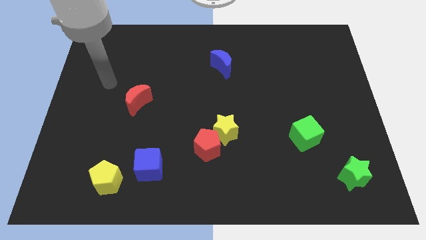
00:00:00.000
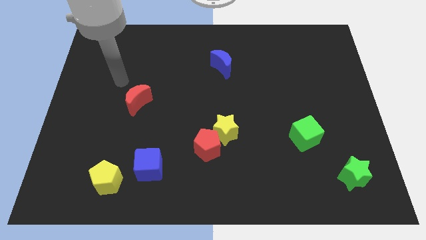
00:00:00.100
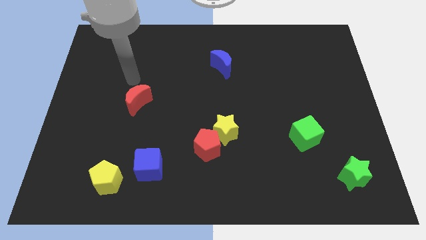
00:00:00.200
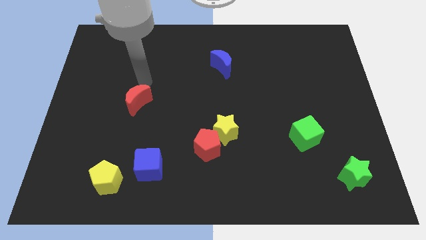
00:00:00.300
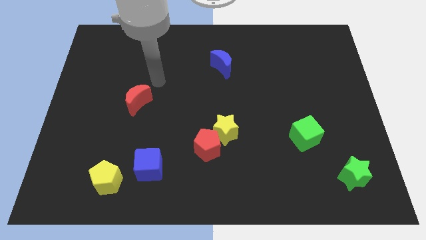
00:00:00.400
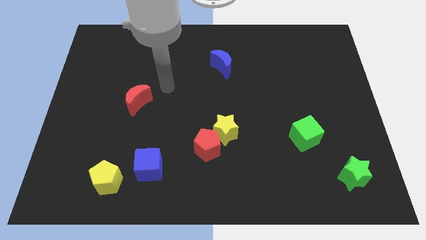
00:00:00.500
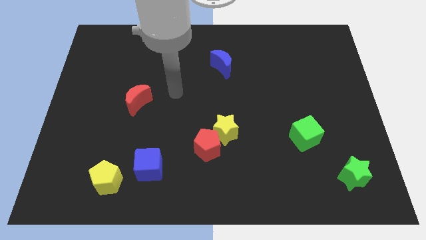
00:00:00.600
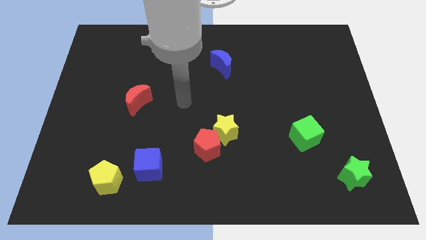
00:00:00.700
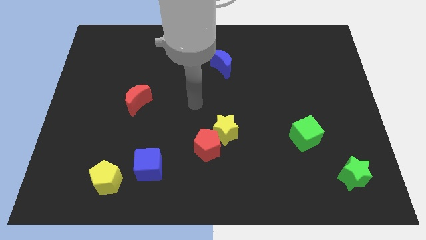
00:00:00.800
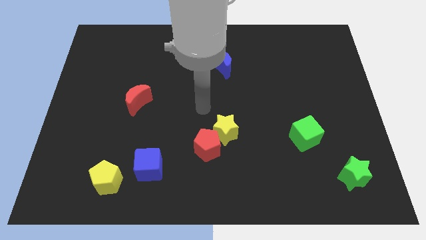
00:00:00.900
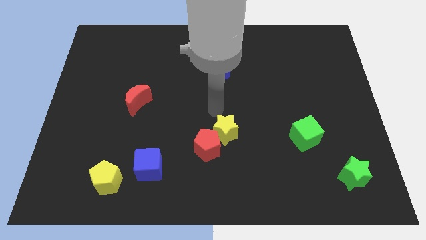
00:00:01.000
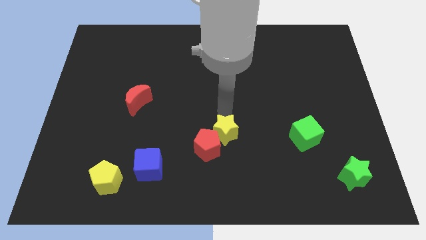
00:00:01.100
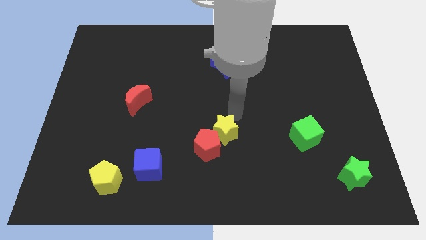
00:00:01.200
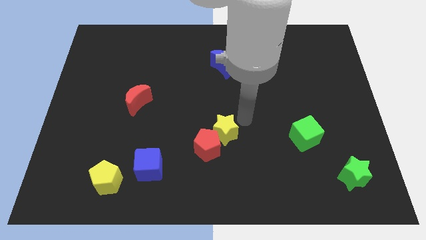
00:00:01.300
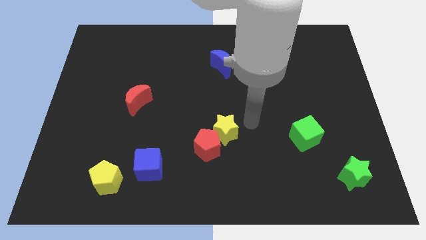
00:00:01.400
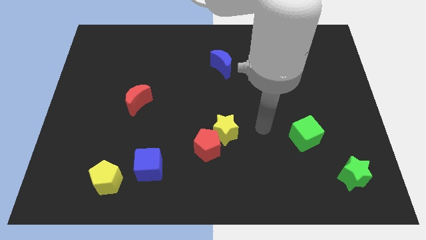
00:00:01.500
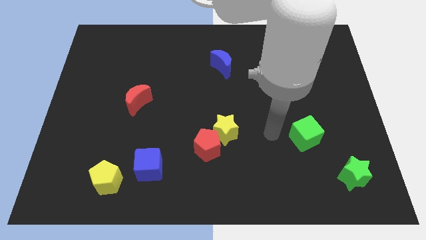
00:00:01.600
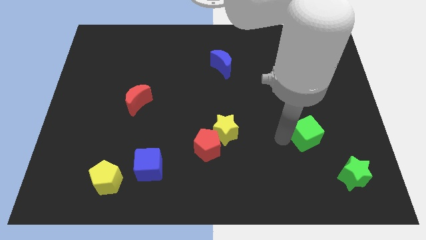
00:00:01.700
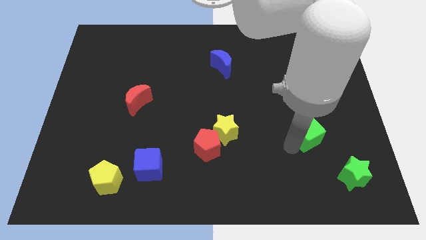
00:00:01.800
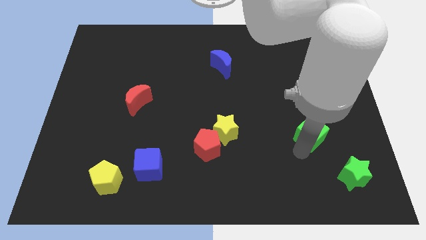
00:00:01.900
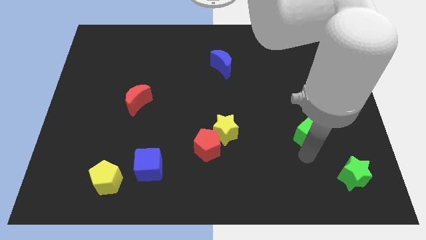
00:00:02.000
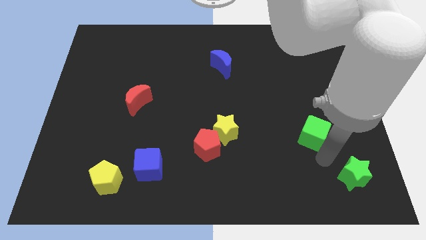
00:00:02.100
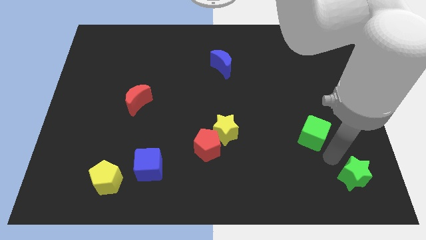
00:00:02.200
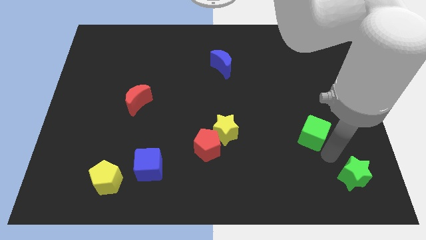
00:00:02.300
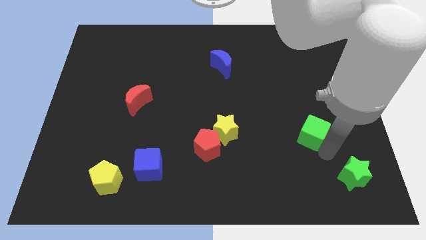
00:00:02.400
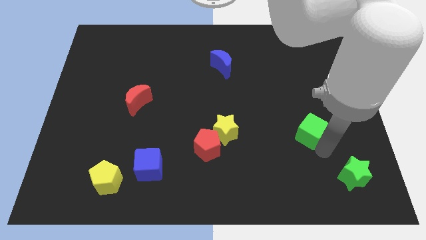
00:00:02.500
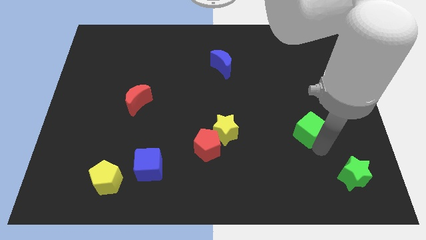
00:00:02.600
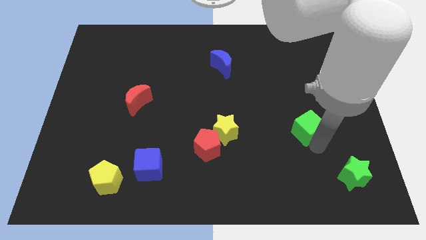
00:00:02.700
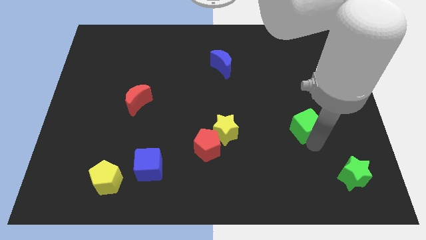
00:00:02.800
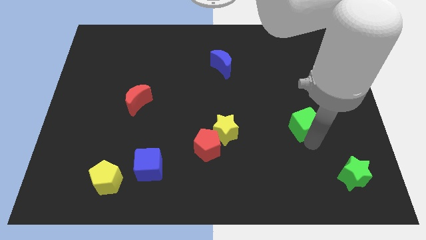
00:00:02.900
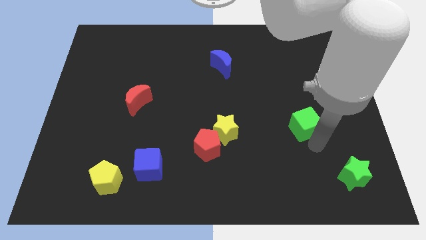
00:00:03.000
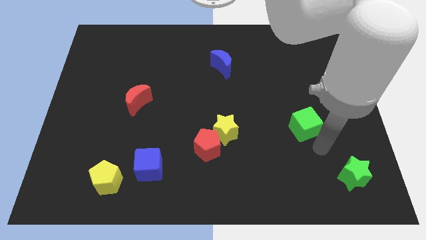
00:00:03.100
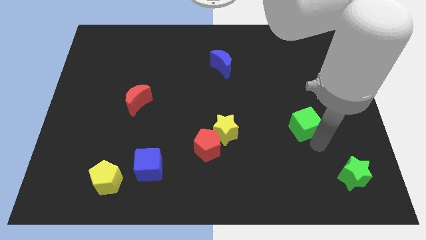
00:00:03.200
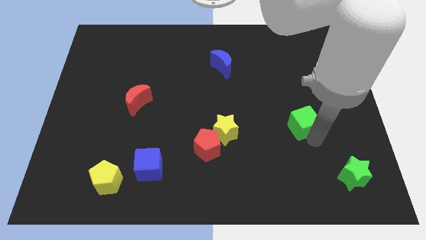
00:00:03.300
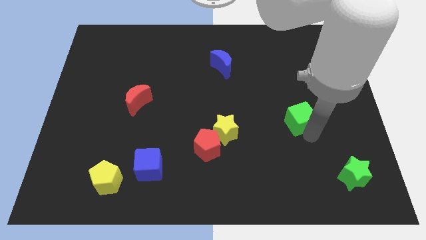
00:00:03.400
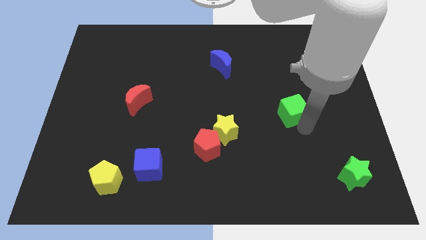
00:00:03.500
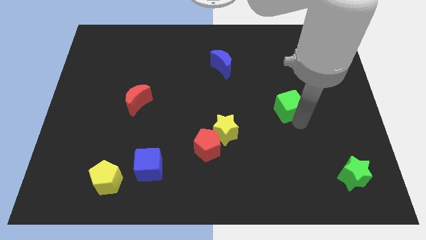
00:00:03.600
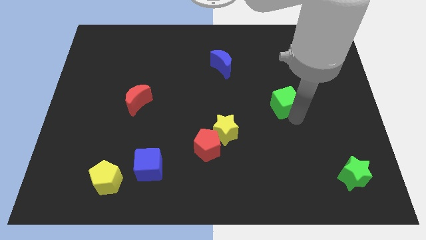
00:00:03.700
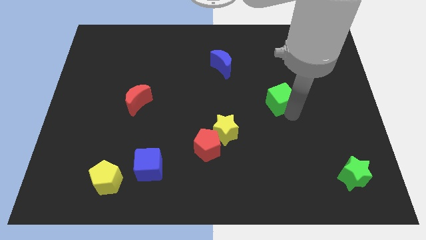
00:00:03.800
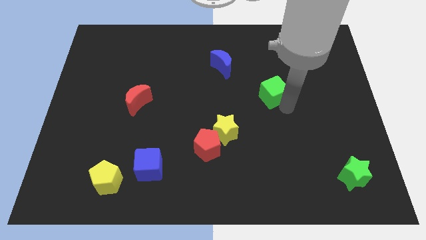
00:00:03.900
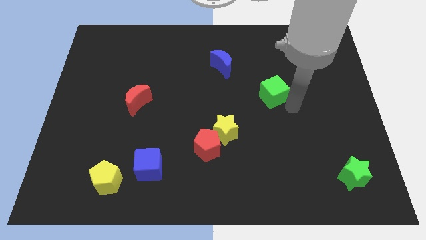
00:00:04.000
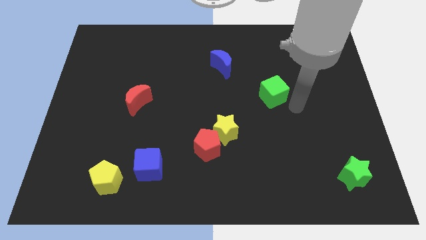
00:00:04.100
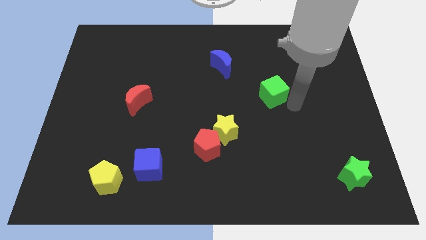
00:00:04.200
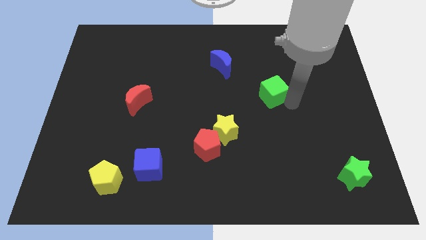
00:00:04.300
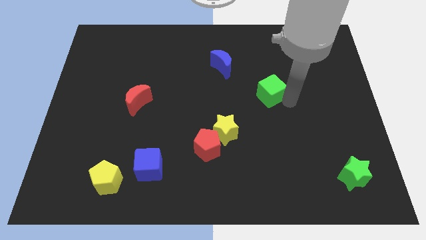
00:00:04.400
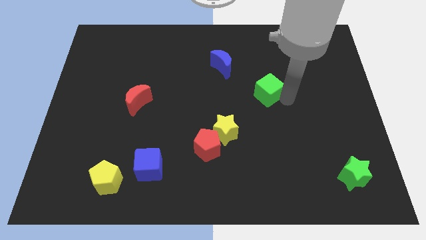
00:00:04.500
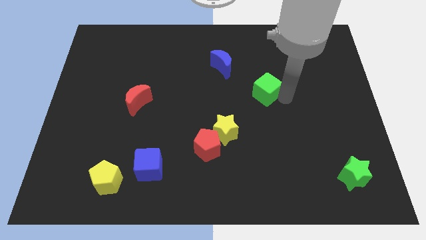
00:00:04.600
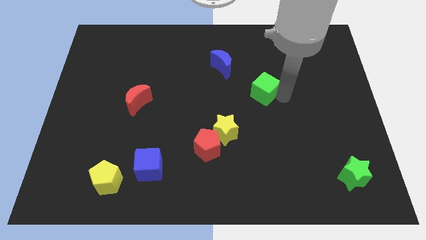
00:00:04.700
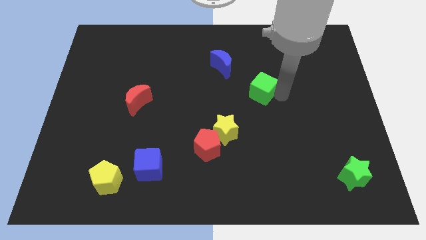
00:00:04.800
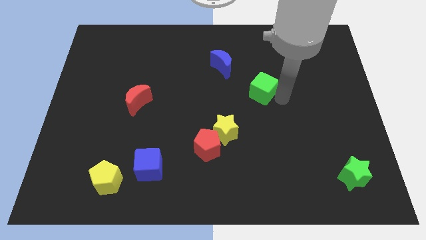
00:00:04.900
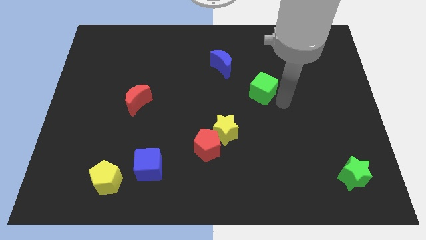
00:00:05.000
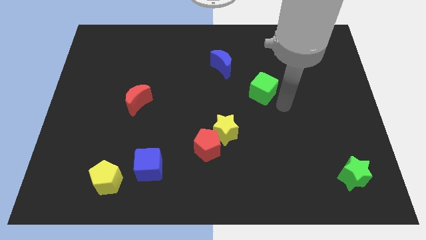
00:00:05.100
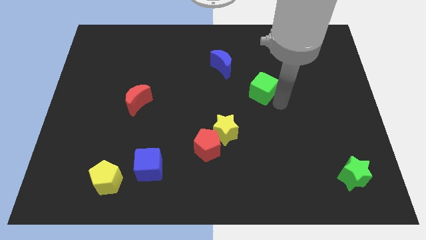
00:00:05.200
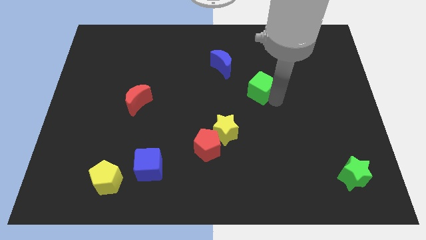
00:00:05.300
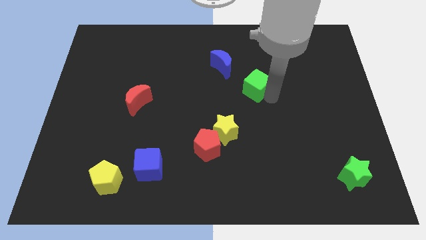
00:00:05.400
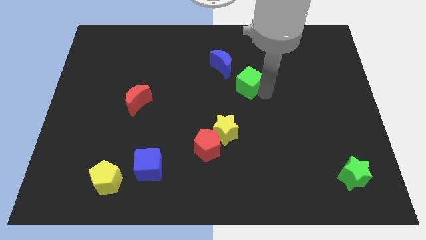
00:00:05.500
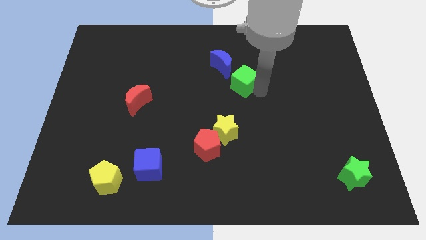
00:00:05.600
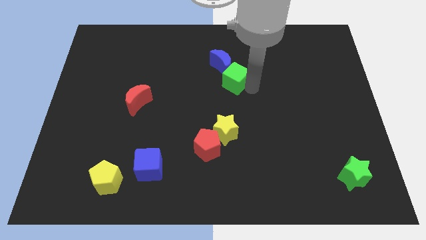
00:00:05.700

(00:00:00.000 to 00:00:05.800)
push the green cube close to the blue moon

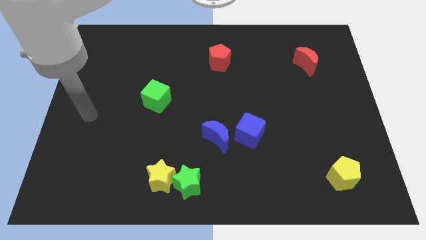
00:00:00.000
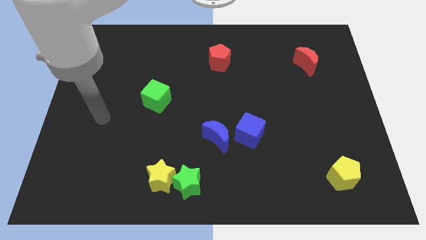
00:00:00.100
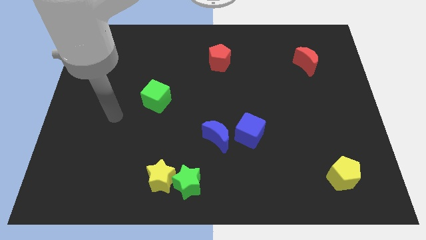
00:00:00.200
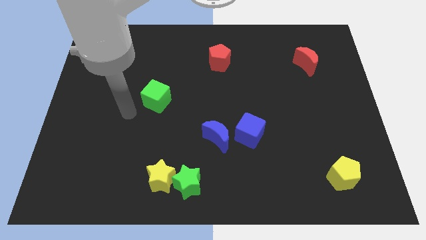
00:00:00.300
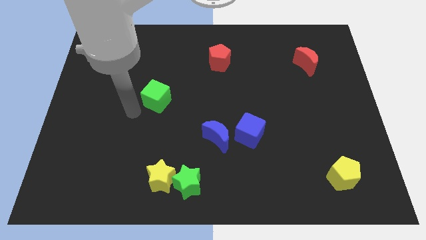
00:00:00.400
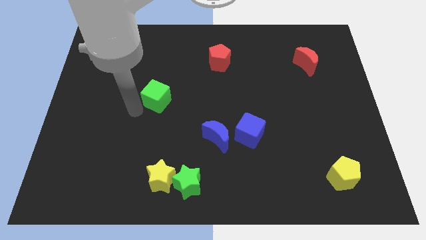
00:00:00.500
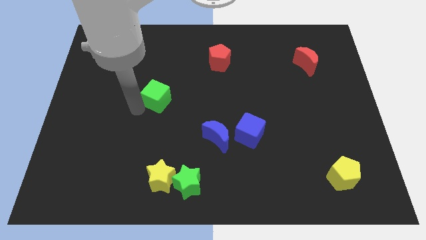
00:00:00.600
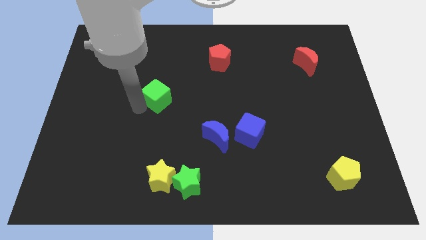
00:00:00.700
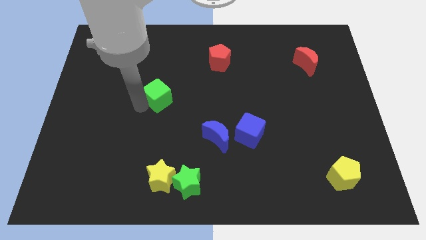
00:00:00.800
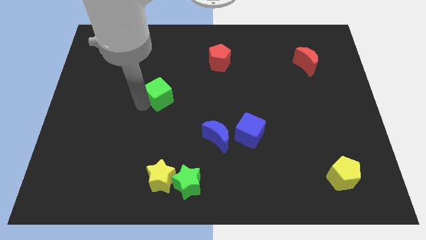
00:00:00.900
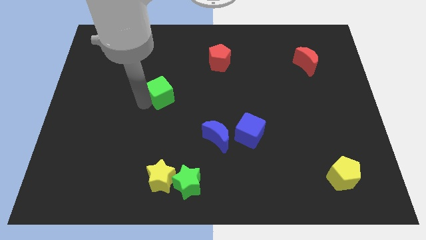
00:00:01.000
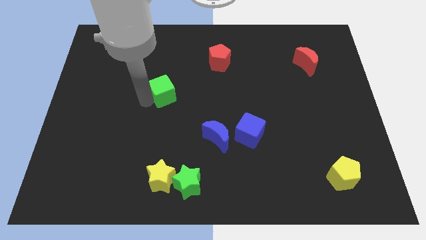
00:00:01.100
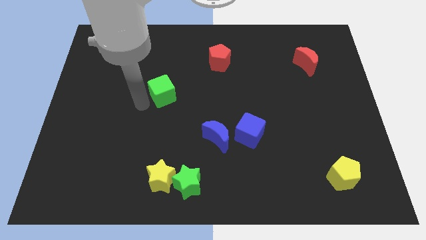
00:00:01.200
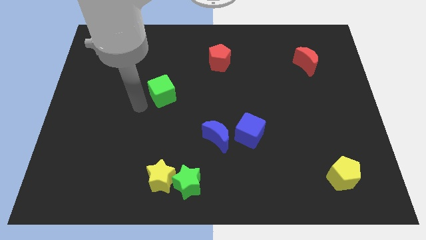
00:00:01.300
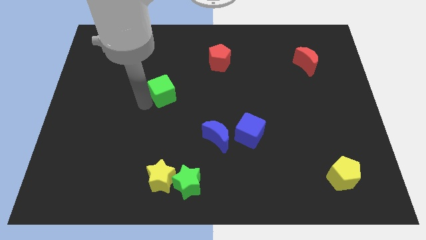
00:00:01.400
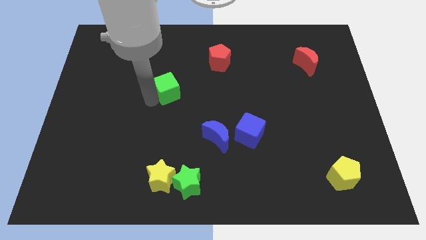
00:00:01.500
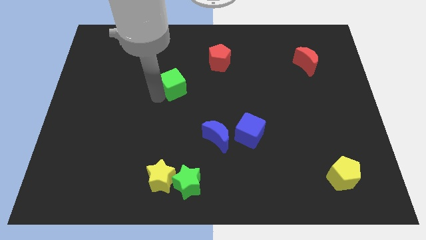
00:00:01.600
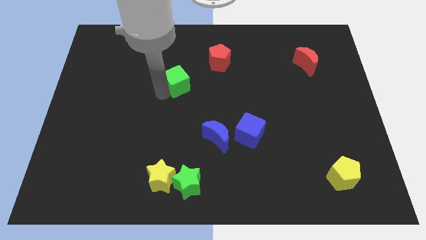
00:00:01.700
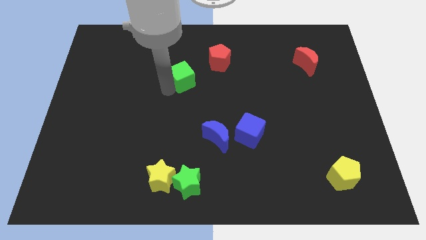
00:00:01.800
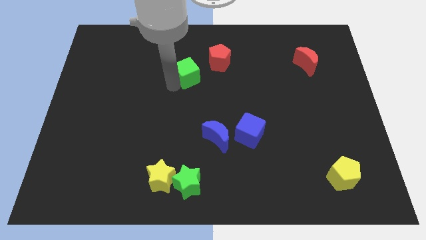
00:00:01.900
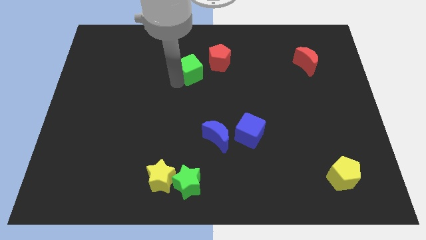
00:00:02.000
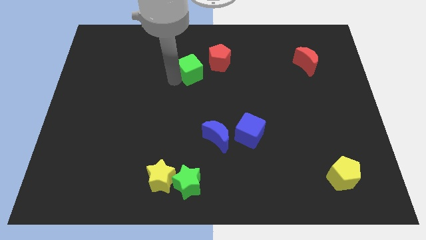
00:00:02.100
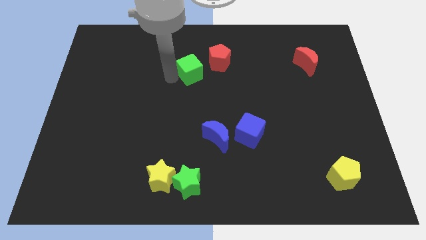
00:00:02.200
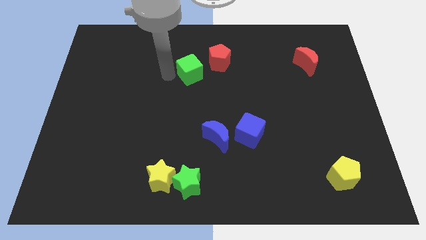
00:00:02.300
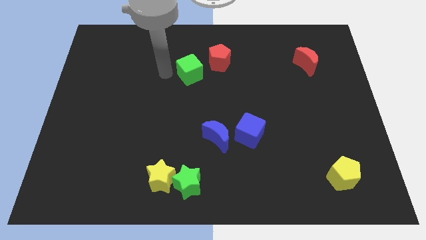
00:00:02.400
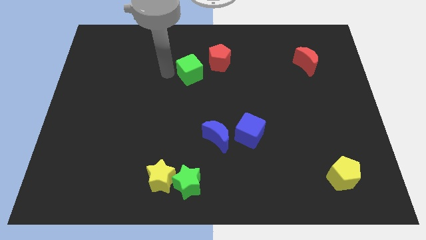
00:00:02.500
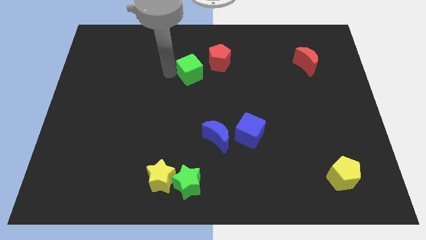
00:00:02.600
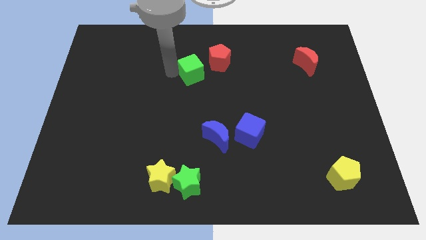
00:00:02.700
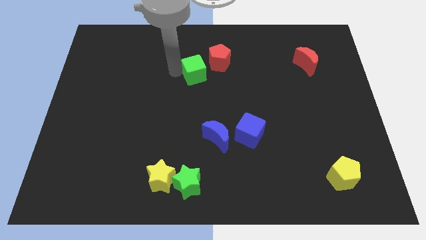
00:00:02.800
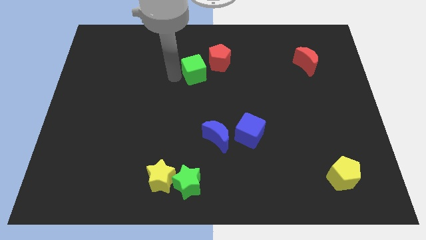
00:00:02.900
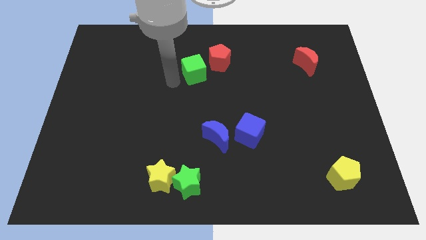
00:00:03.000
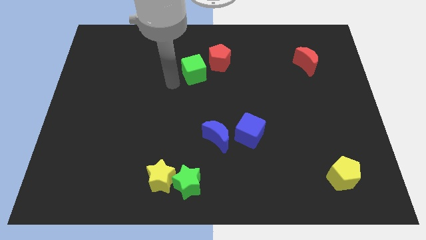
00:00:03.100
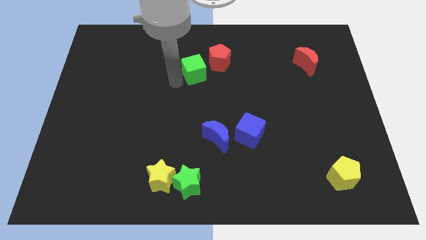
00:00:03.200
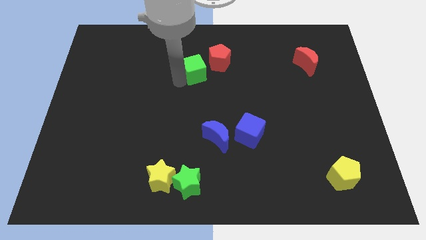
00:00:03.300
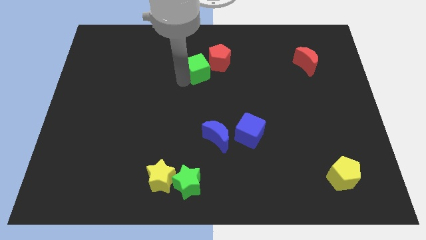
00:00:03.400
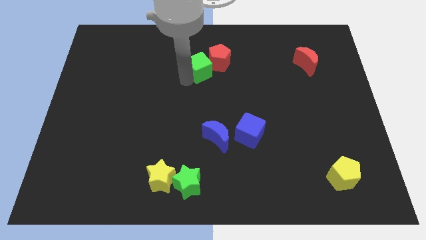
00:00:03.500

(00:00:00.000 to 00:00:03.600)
slide the green cube towards the red pentagon
